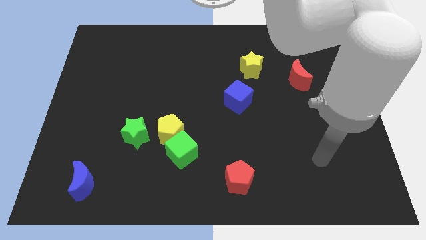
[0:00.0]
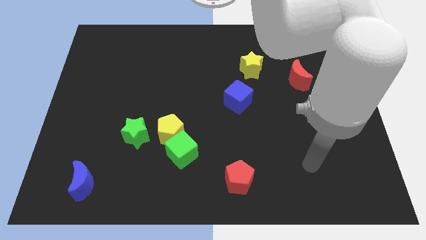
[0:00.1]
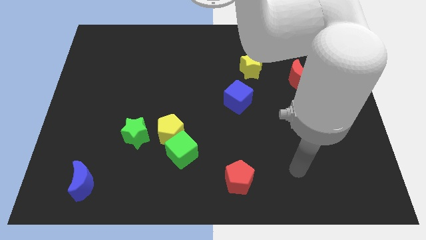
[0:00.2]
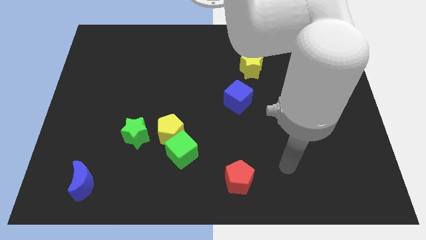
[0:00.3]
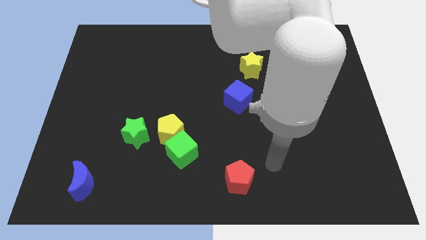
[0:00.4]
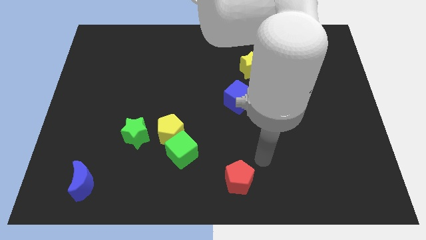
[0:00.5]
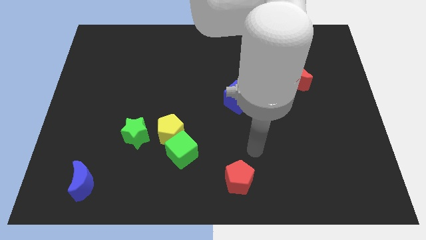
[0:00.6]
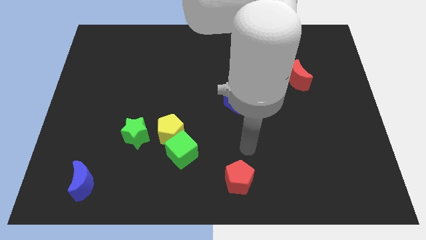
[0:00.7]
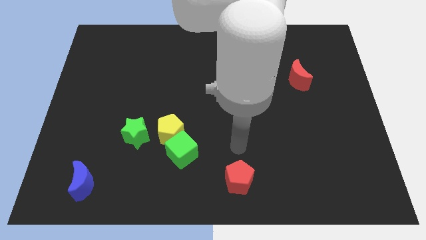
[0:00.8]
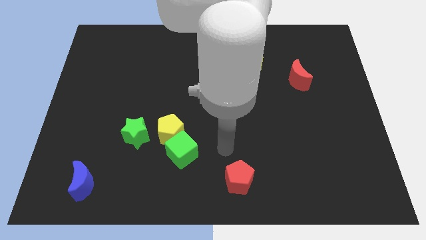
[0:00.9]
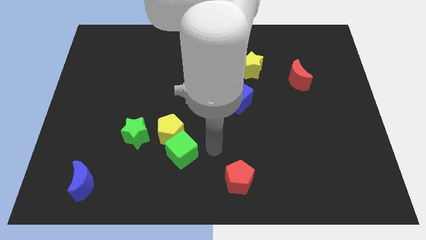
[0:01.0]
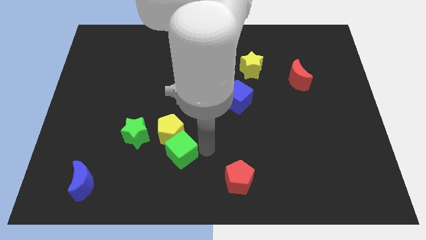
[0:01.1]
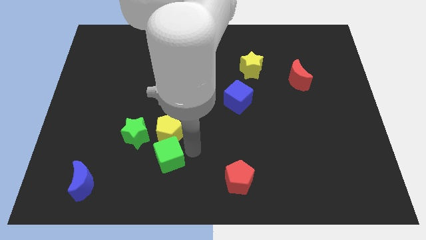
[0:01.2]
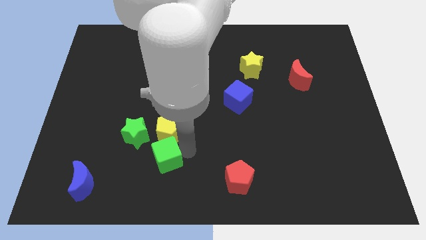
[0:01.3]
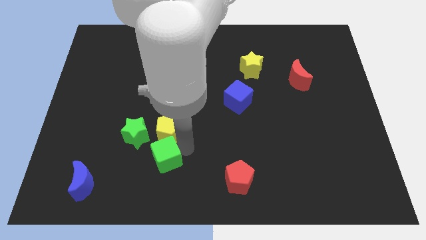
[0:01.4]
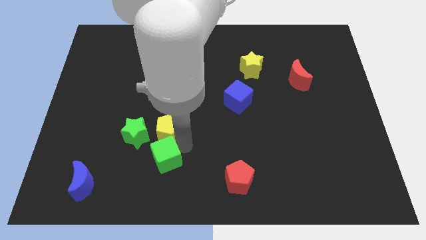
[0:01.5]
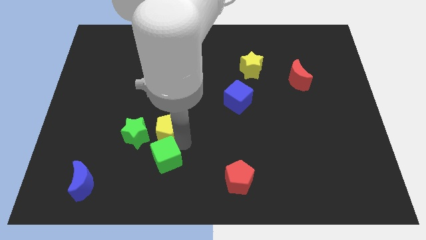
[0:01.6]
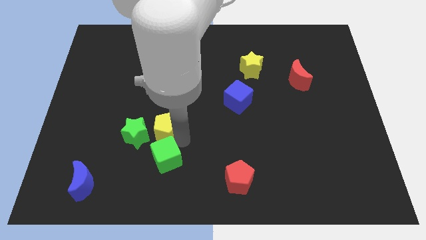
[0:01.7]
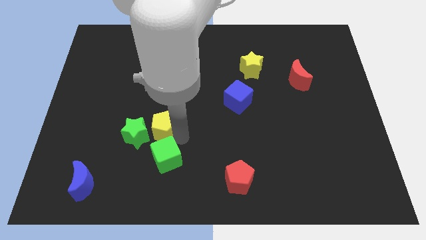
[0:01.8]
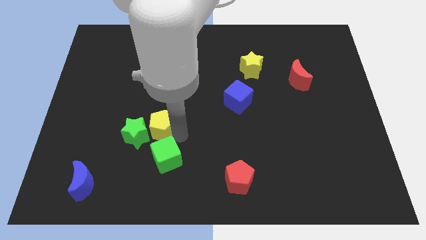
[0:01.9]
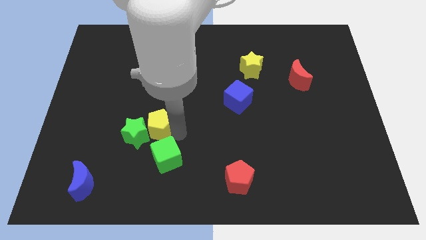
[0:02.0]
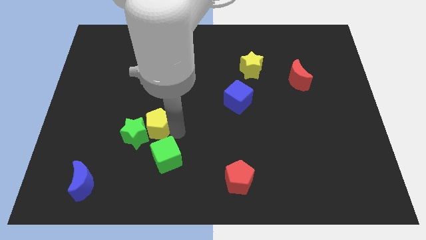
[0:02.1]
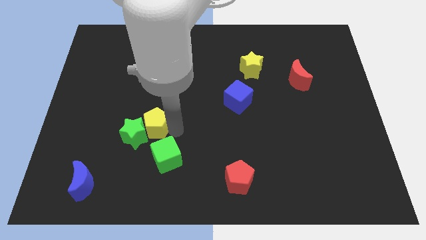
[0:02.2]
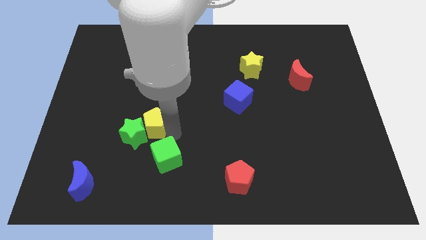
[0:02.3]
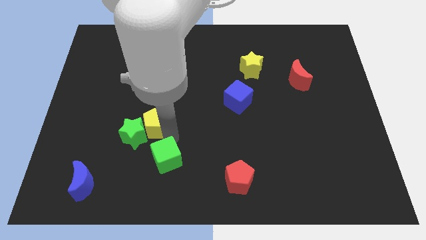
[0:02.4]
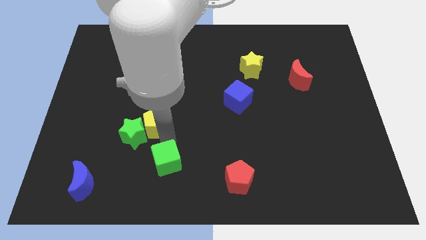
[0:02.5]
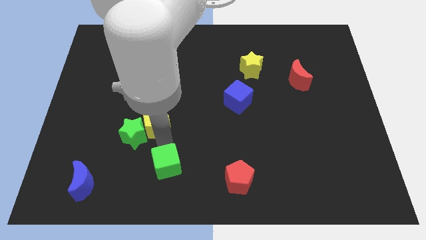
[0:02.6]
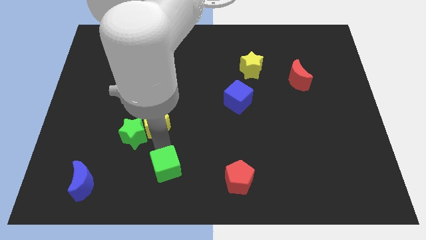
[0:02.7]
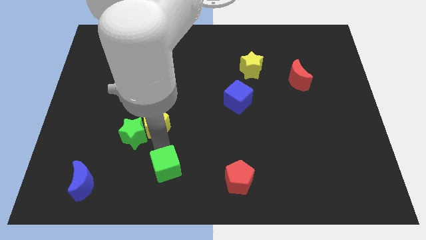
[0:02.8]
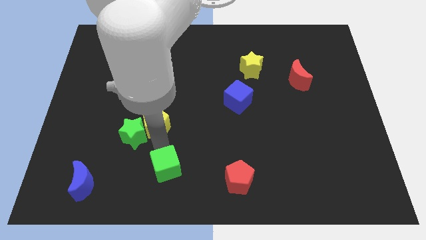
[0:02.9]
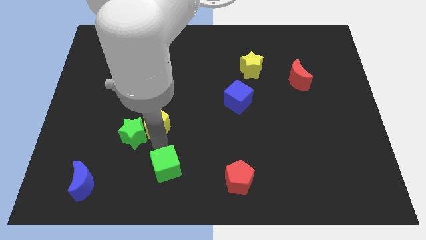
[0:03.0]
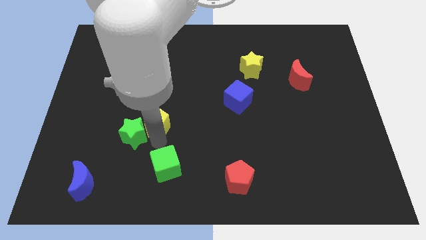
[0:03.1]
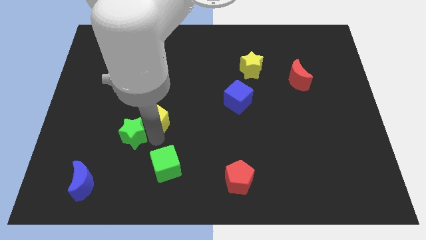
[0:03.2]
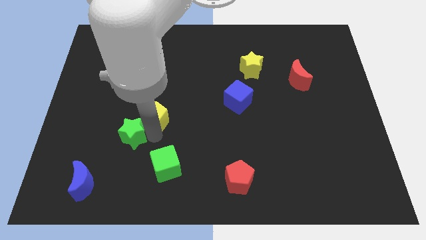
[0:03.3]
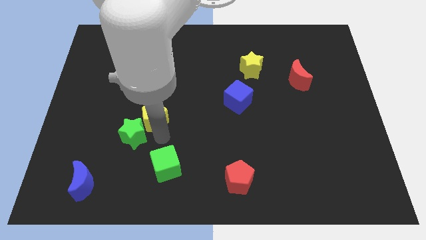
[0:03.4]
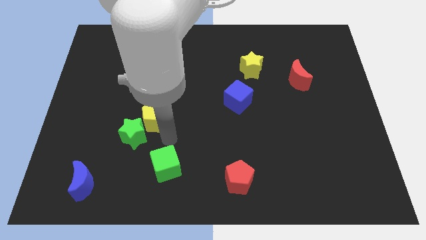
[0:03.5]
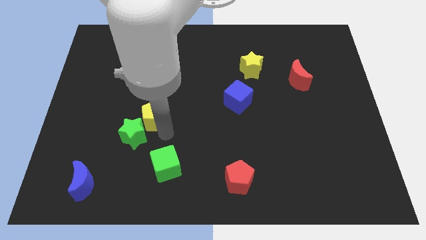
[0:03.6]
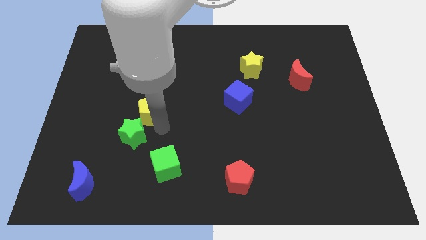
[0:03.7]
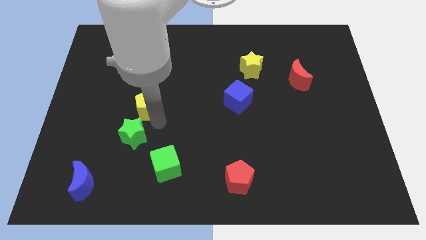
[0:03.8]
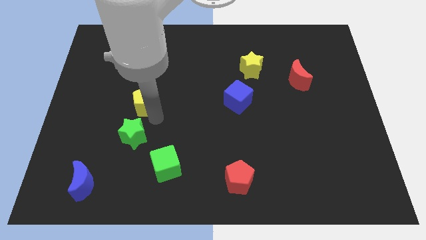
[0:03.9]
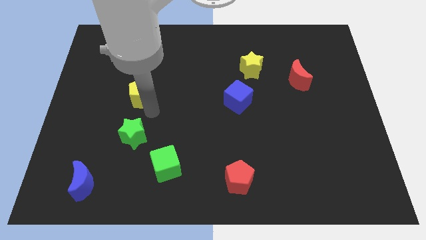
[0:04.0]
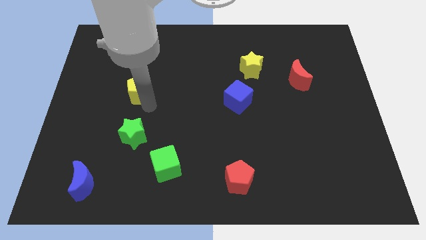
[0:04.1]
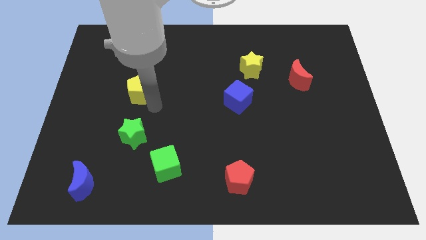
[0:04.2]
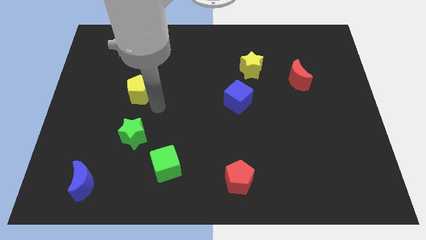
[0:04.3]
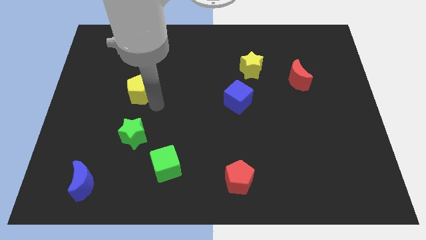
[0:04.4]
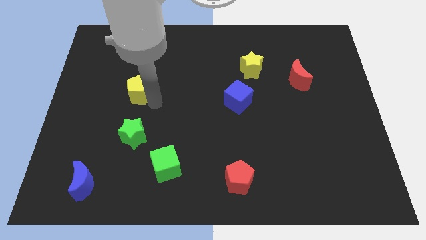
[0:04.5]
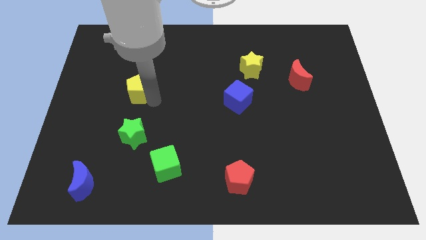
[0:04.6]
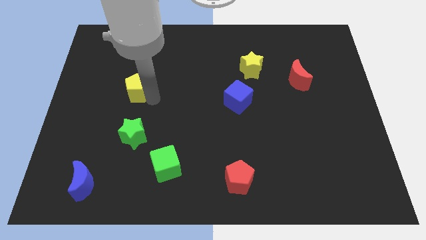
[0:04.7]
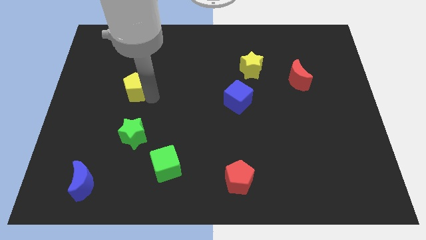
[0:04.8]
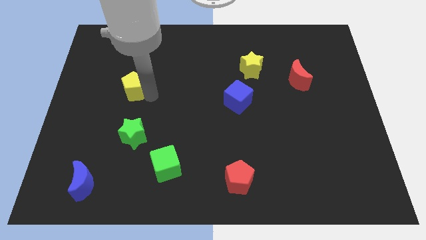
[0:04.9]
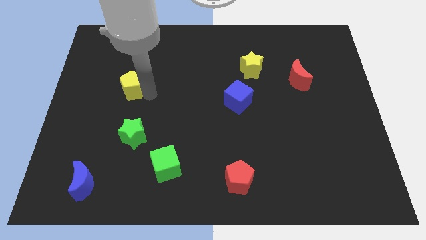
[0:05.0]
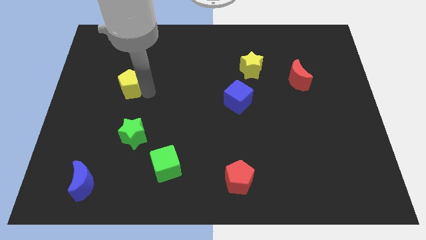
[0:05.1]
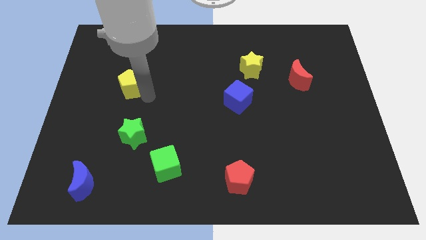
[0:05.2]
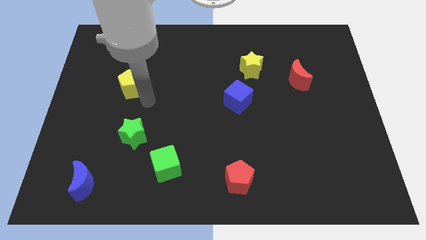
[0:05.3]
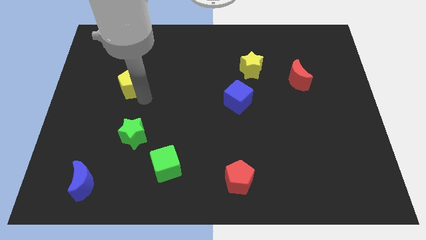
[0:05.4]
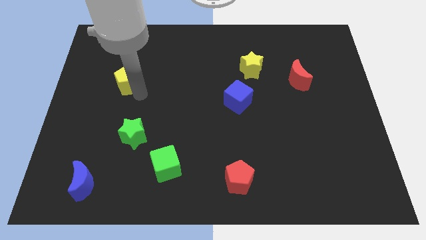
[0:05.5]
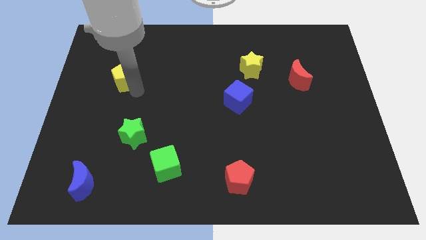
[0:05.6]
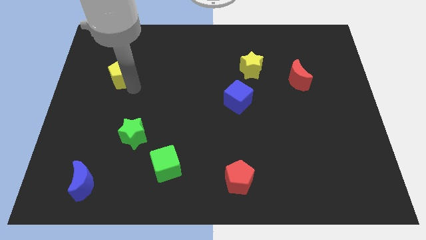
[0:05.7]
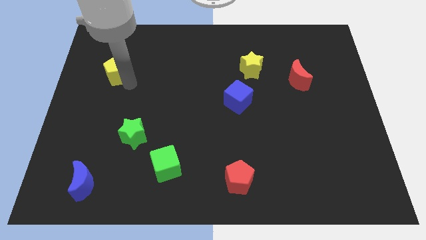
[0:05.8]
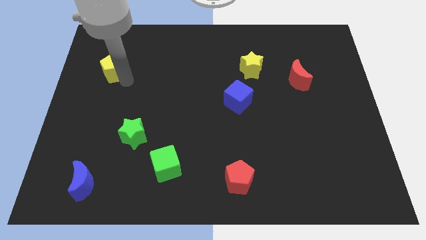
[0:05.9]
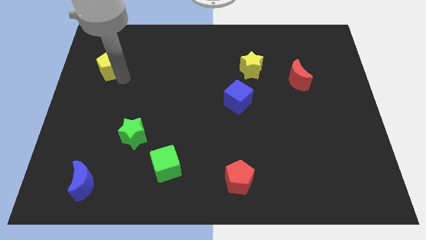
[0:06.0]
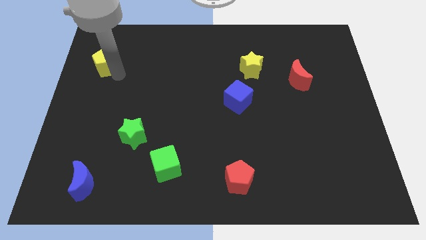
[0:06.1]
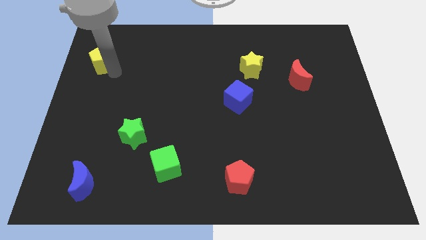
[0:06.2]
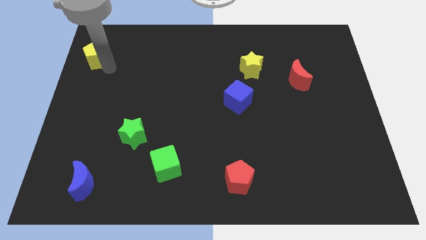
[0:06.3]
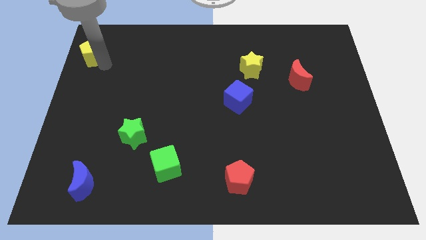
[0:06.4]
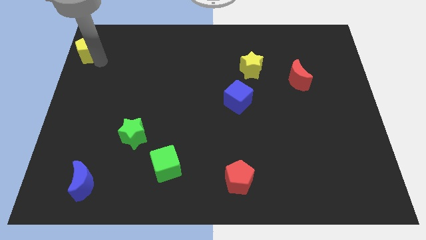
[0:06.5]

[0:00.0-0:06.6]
move the yellow pentagon to the upper left corner
